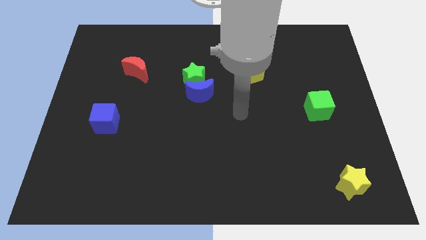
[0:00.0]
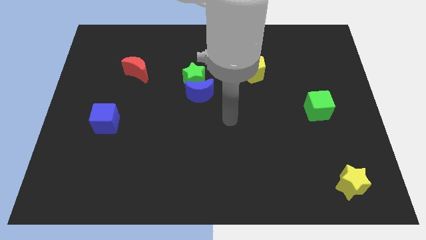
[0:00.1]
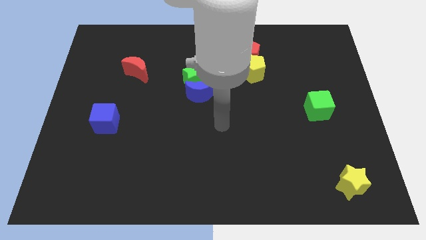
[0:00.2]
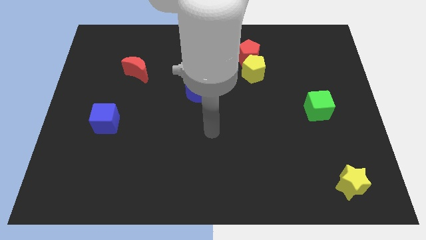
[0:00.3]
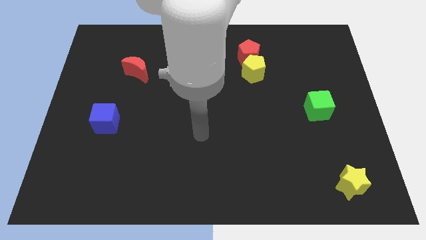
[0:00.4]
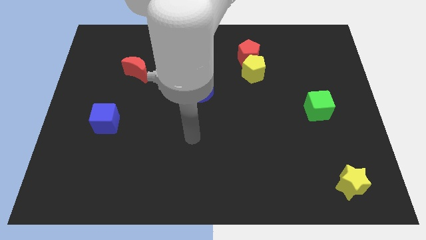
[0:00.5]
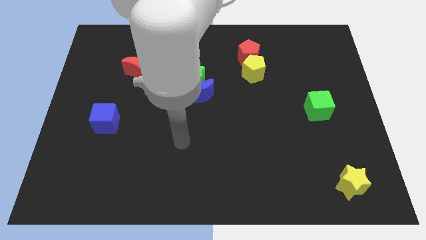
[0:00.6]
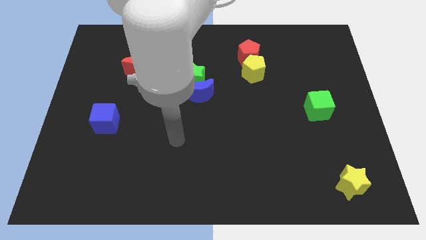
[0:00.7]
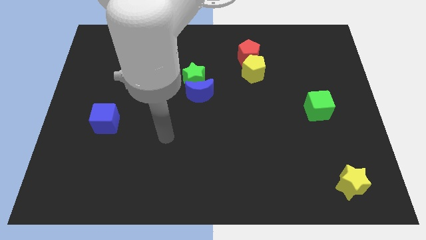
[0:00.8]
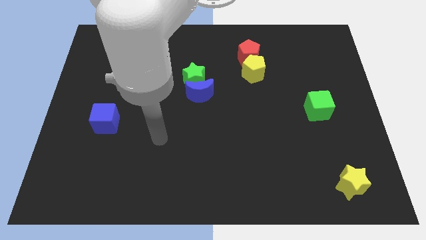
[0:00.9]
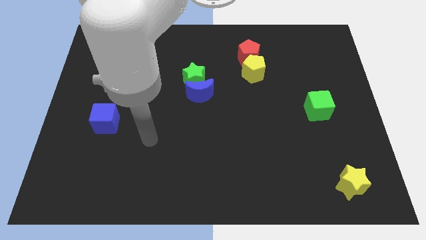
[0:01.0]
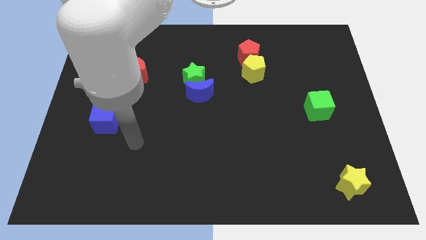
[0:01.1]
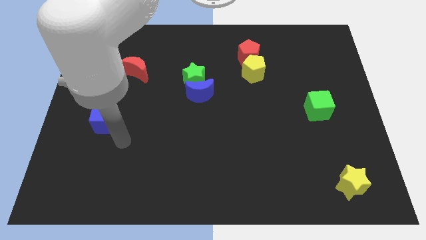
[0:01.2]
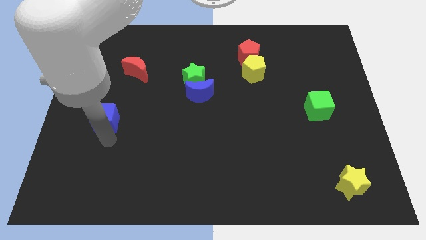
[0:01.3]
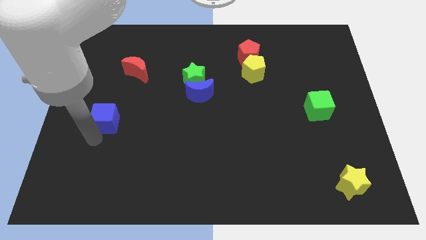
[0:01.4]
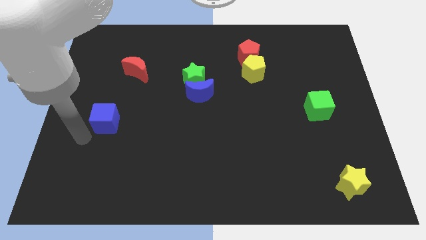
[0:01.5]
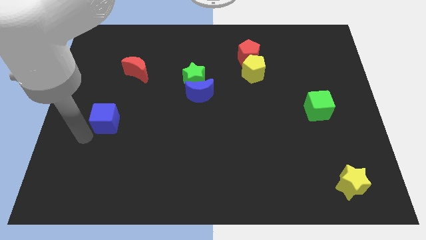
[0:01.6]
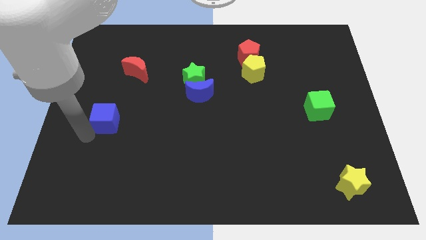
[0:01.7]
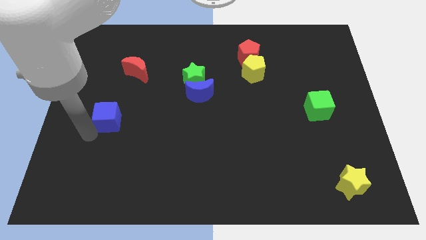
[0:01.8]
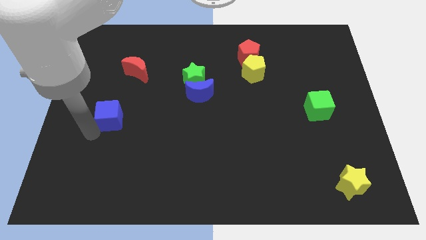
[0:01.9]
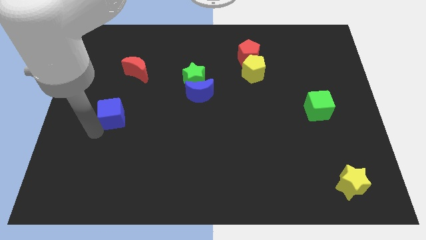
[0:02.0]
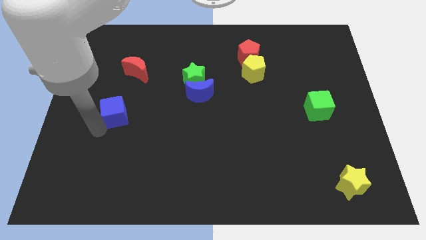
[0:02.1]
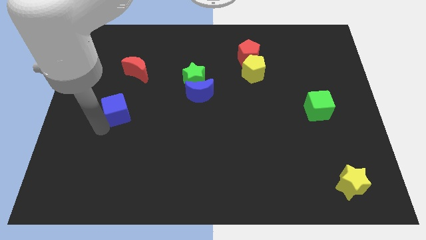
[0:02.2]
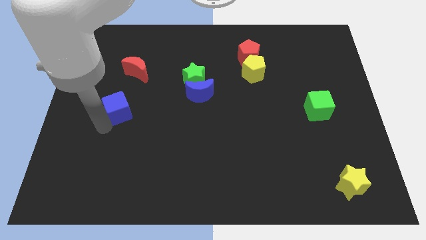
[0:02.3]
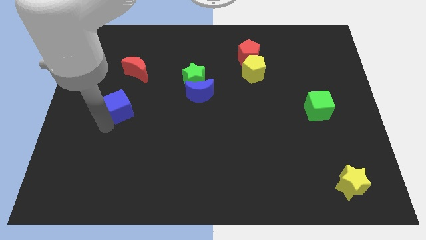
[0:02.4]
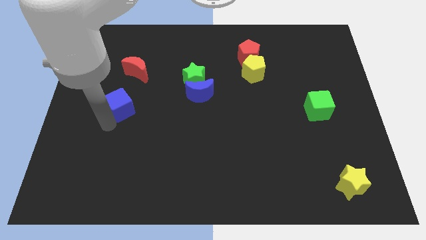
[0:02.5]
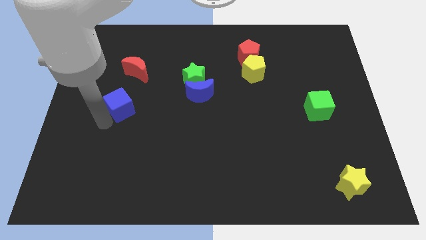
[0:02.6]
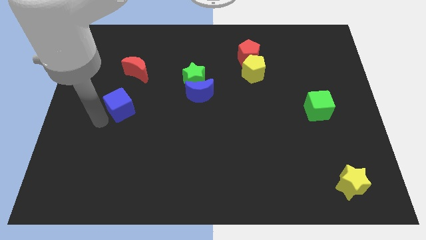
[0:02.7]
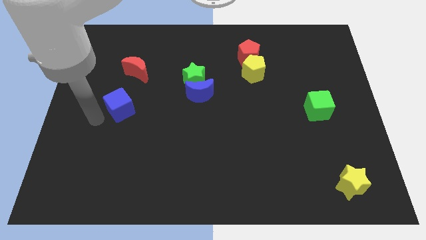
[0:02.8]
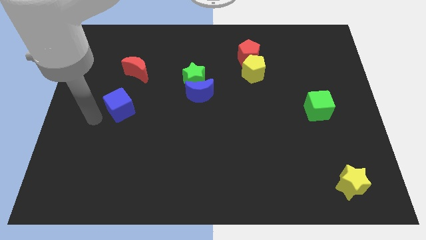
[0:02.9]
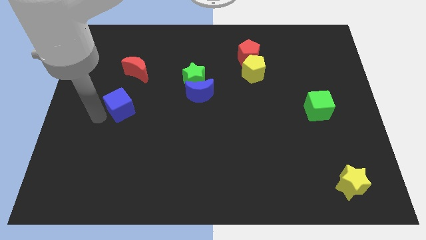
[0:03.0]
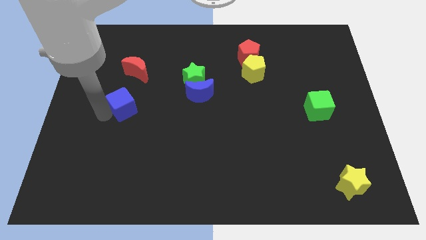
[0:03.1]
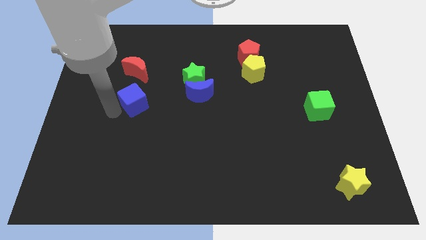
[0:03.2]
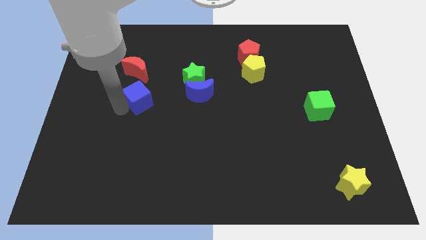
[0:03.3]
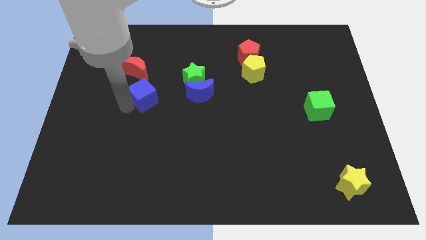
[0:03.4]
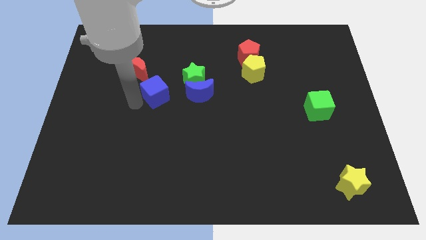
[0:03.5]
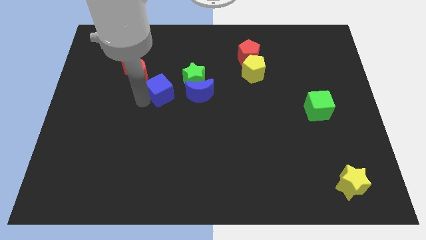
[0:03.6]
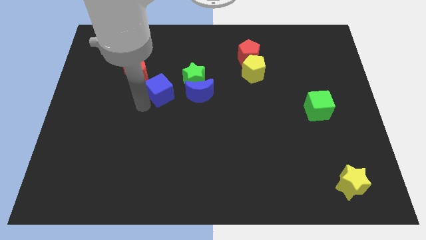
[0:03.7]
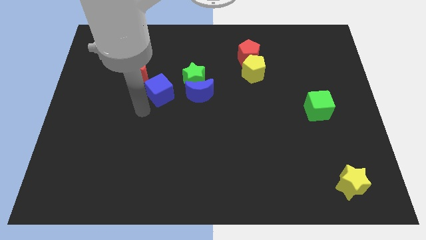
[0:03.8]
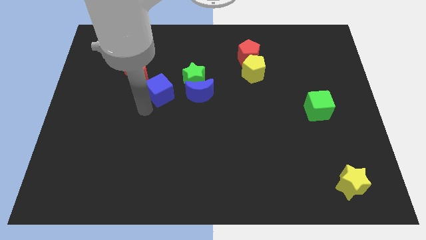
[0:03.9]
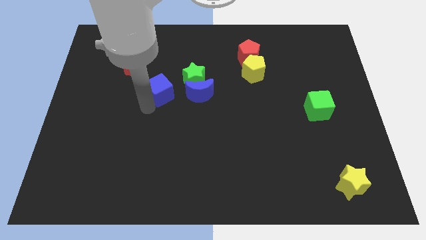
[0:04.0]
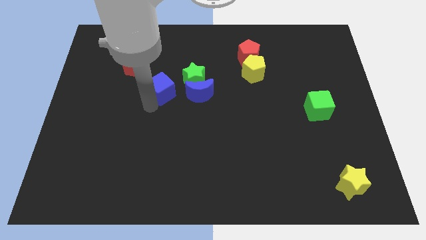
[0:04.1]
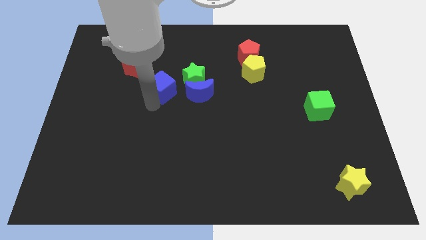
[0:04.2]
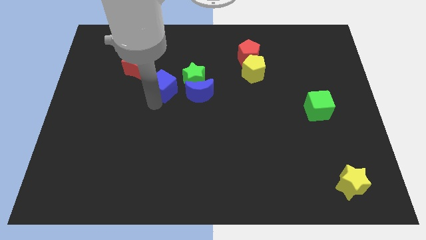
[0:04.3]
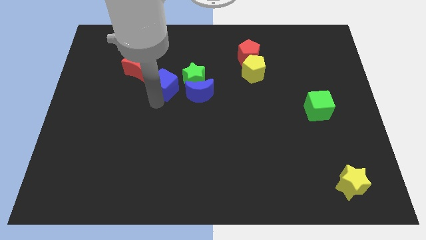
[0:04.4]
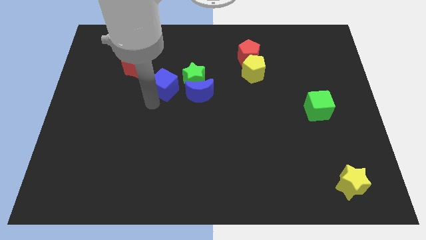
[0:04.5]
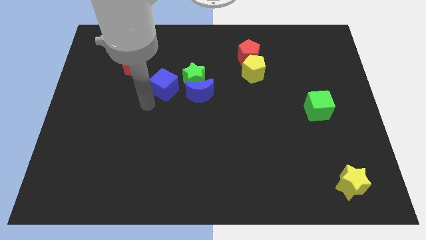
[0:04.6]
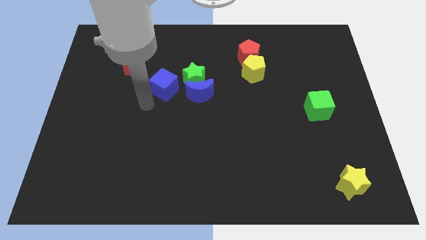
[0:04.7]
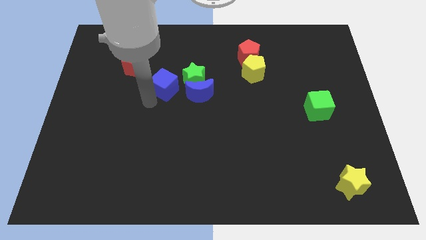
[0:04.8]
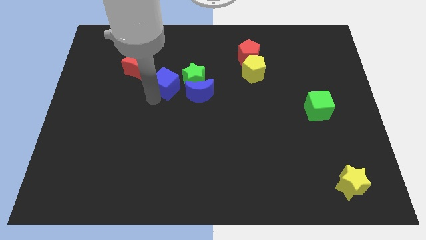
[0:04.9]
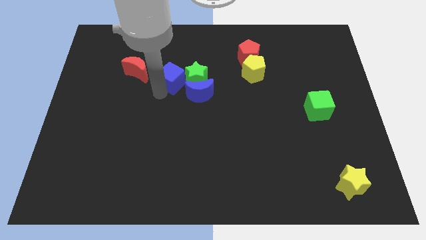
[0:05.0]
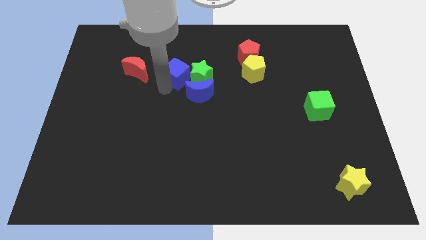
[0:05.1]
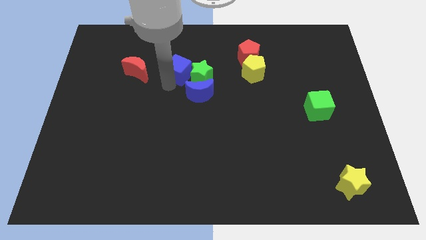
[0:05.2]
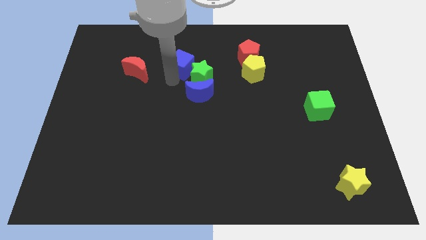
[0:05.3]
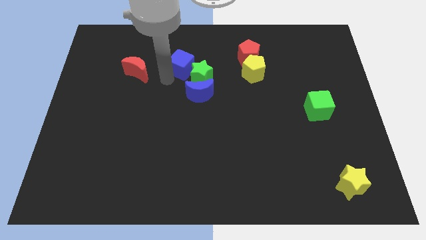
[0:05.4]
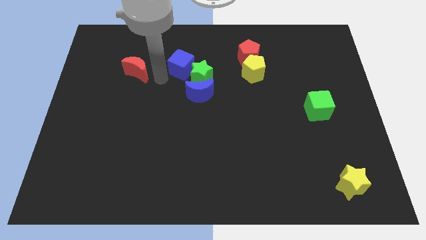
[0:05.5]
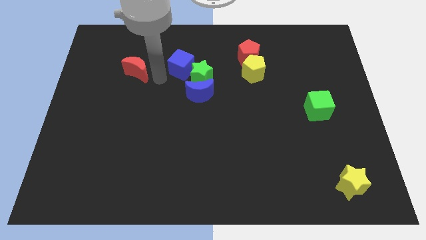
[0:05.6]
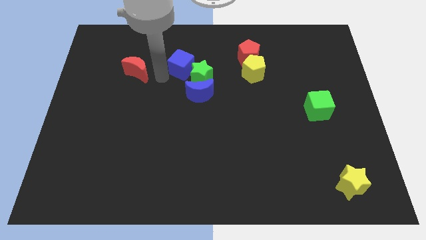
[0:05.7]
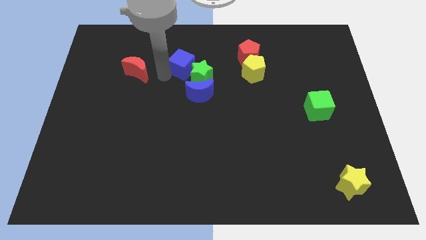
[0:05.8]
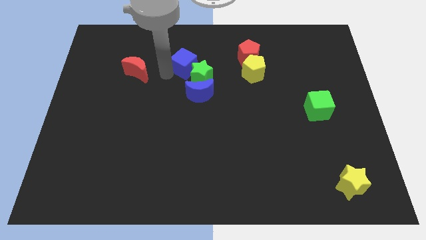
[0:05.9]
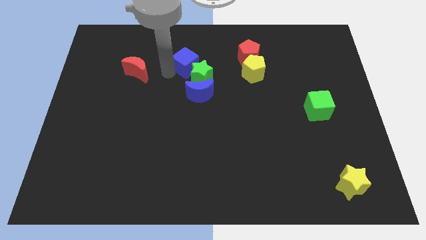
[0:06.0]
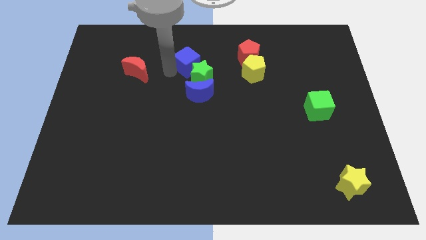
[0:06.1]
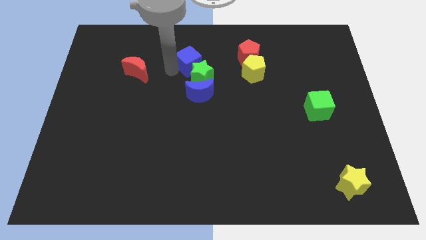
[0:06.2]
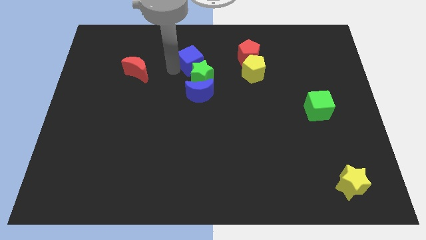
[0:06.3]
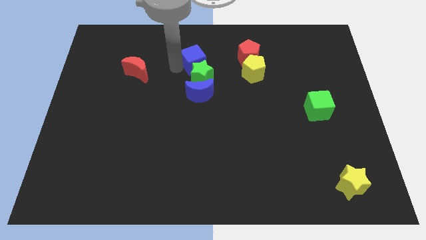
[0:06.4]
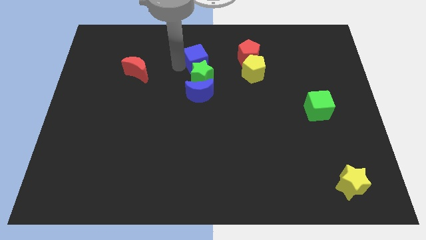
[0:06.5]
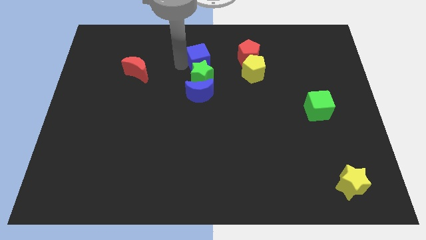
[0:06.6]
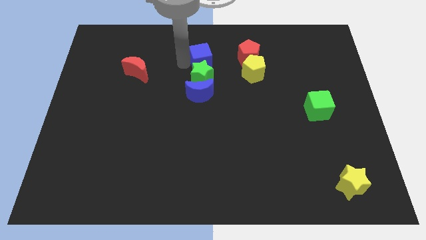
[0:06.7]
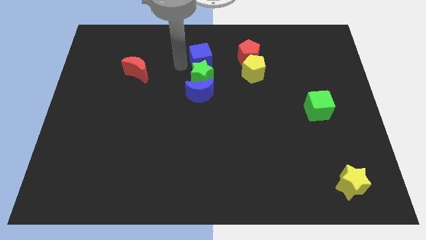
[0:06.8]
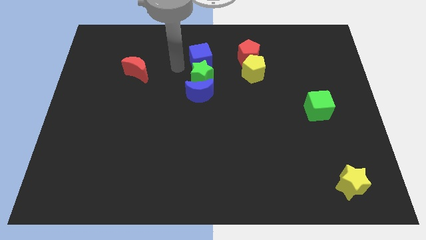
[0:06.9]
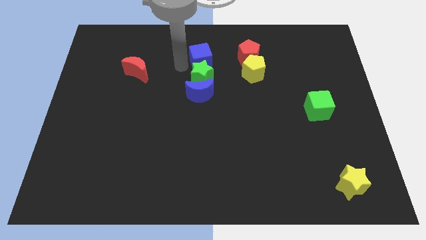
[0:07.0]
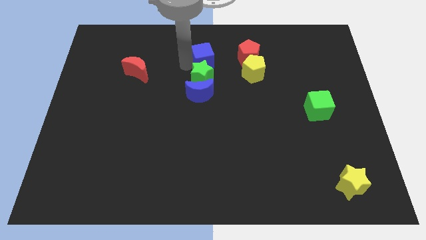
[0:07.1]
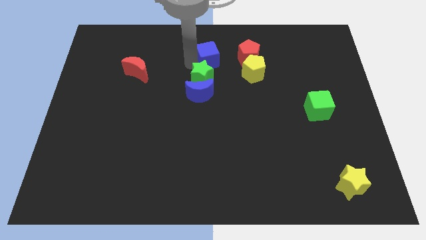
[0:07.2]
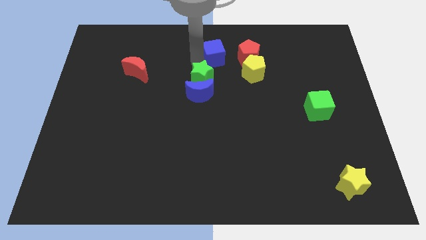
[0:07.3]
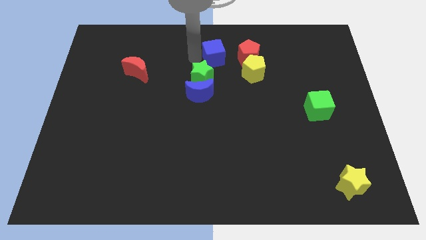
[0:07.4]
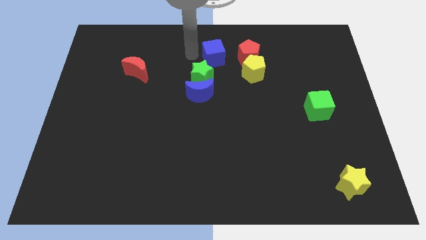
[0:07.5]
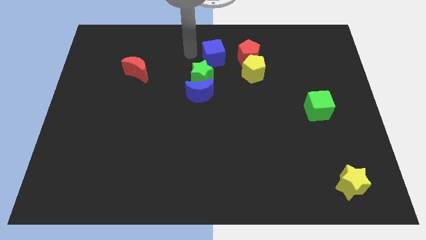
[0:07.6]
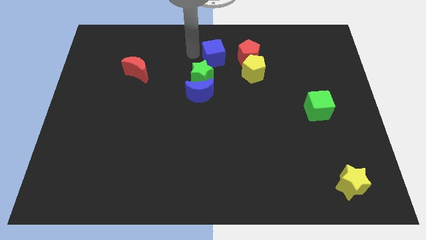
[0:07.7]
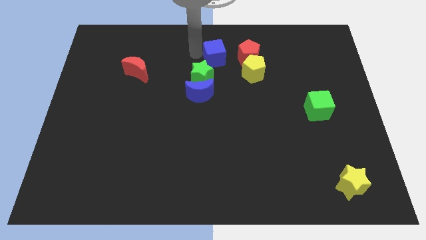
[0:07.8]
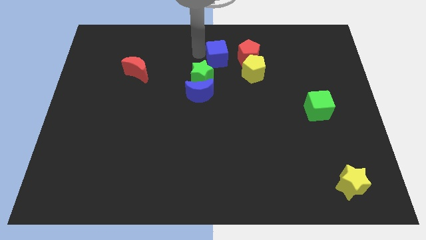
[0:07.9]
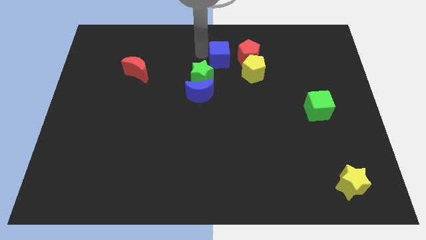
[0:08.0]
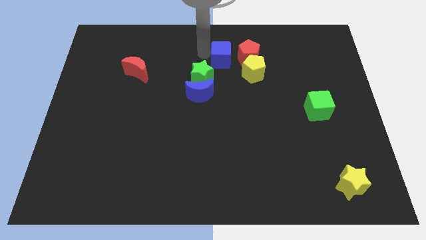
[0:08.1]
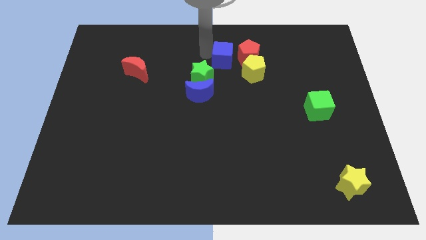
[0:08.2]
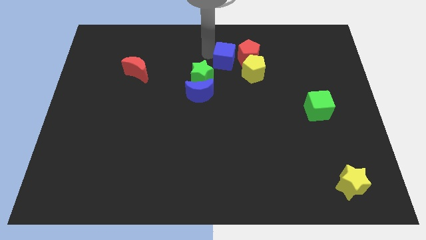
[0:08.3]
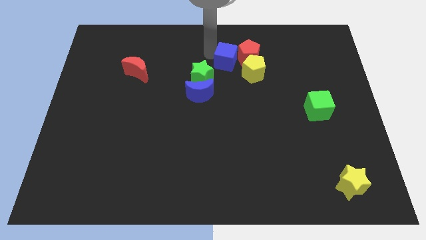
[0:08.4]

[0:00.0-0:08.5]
put the blue cube close to the red pentagon
